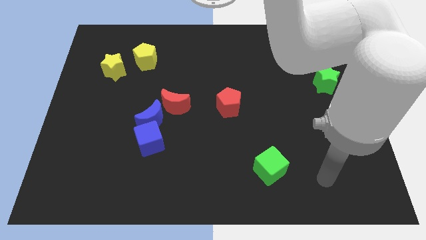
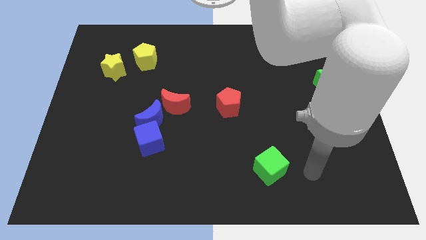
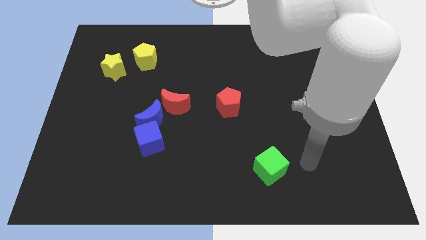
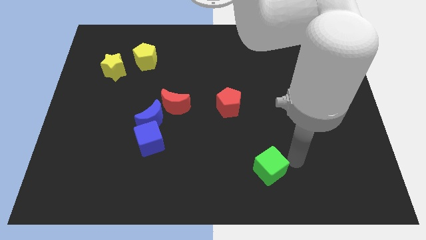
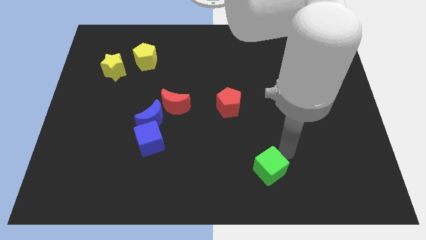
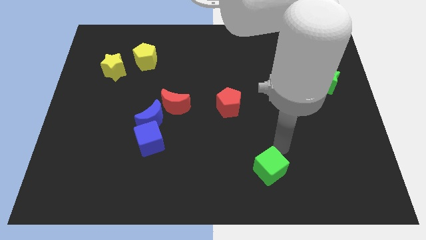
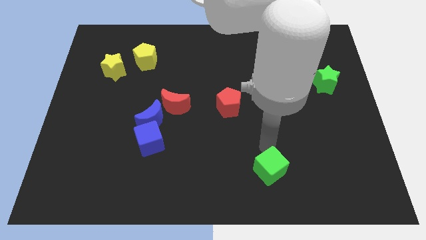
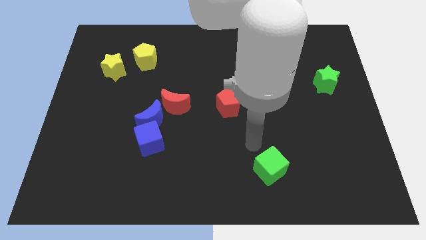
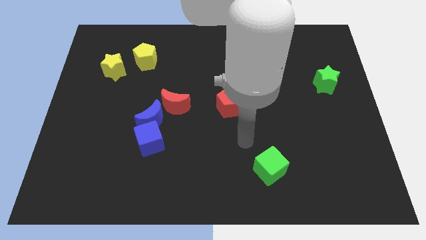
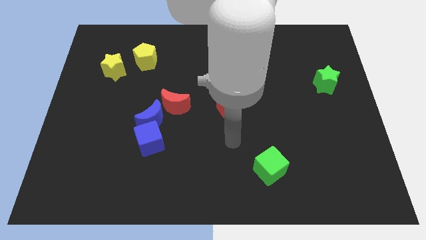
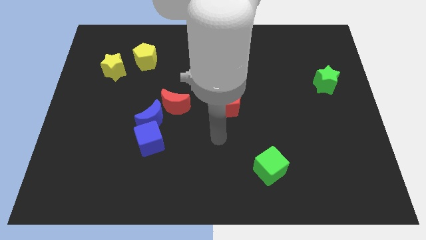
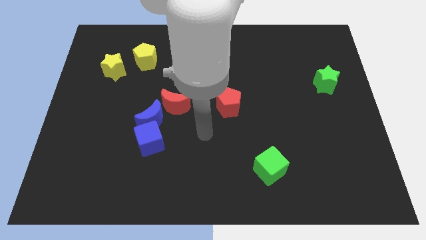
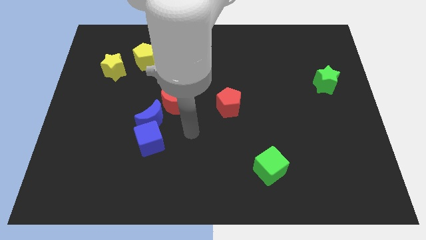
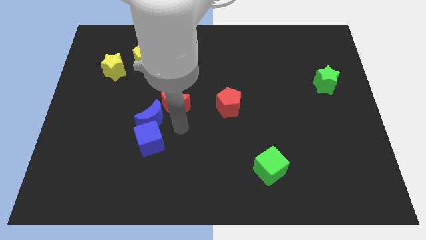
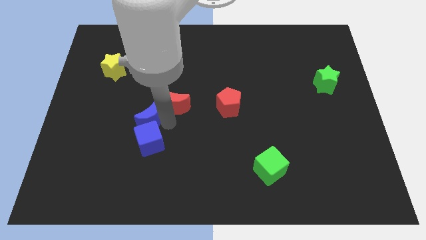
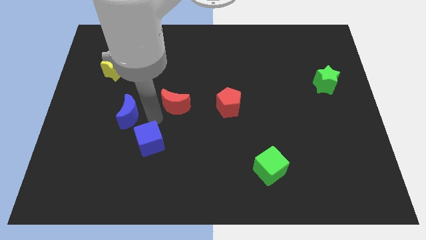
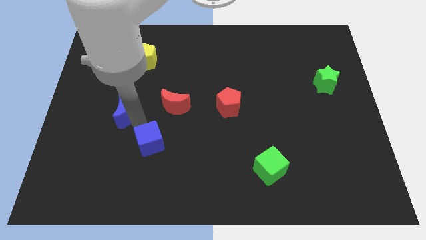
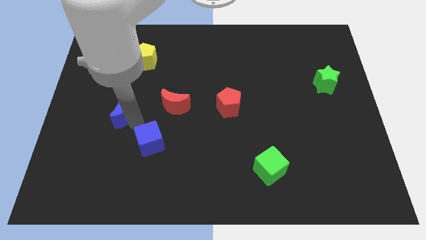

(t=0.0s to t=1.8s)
pull the blue cube apart from the blue moon

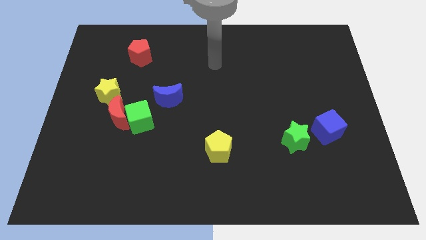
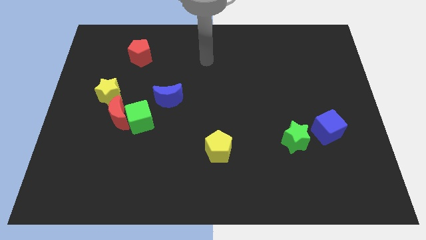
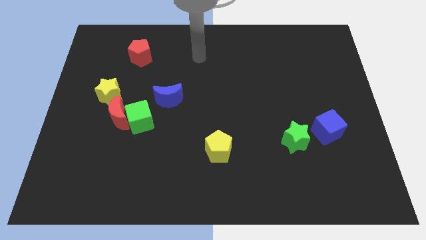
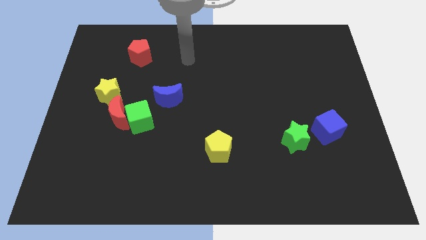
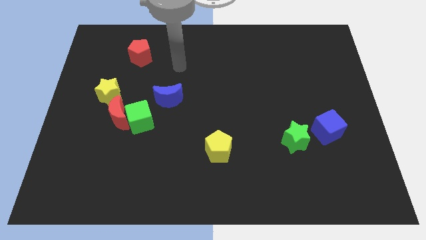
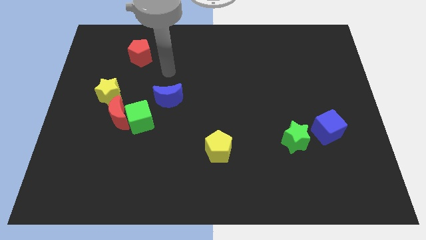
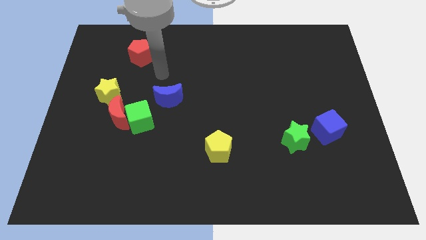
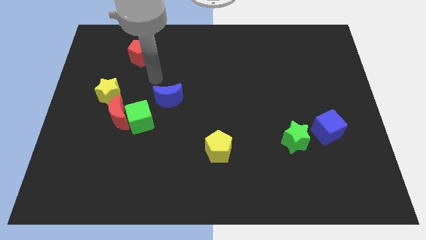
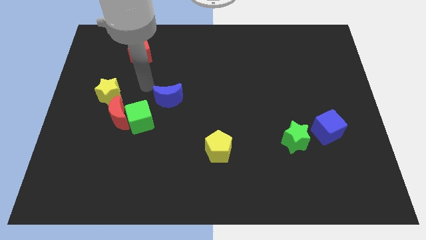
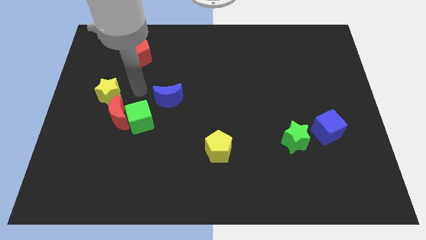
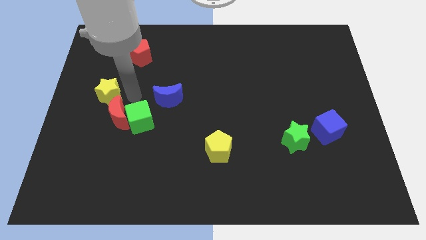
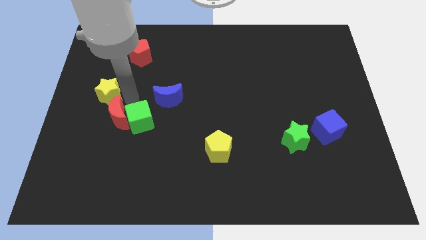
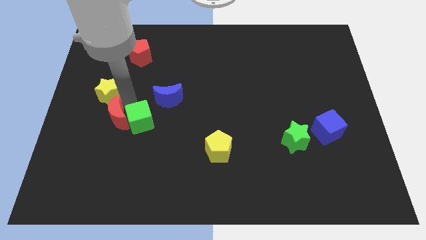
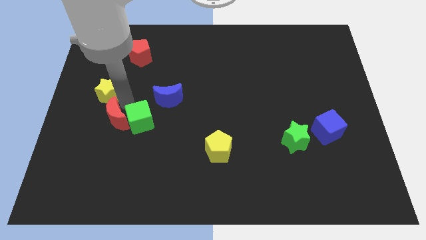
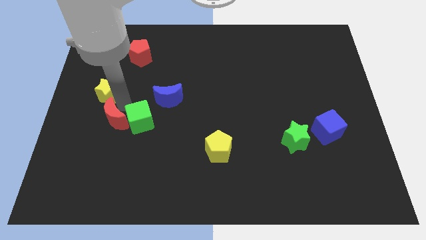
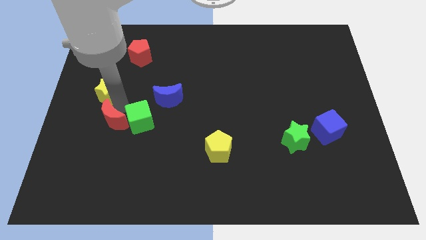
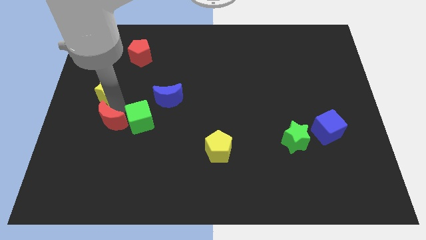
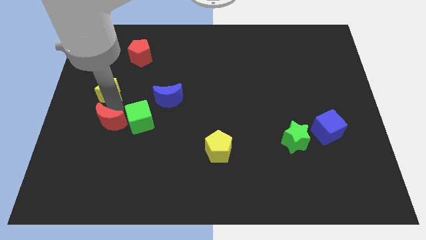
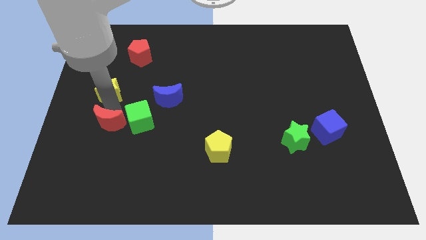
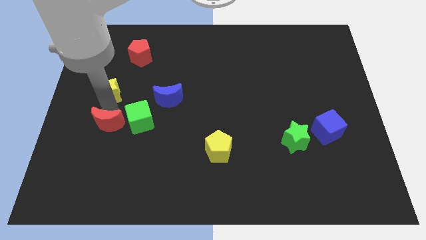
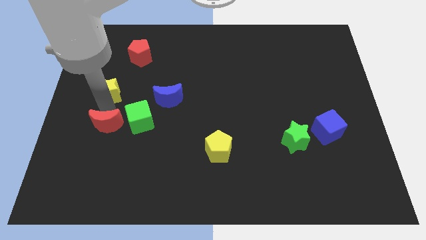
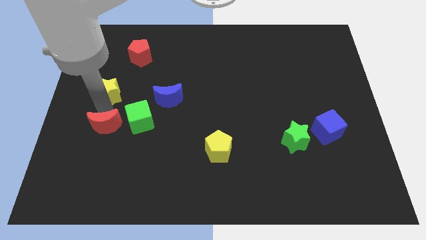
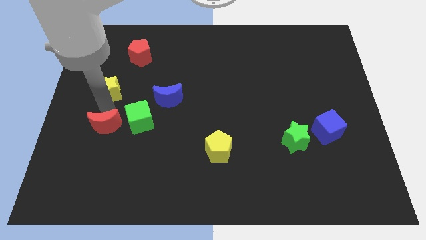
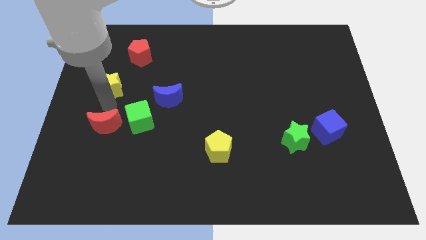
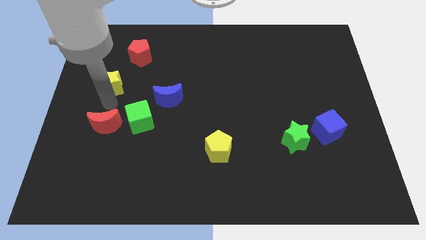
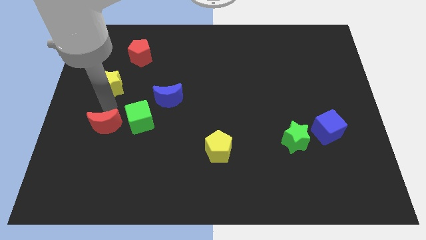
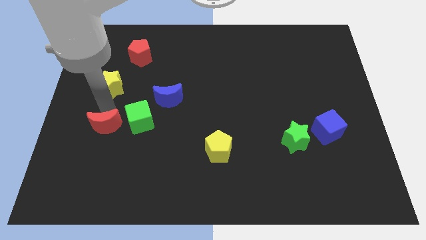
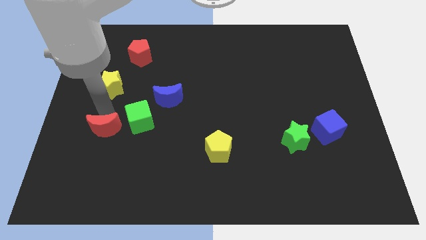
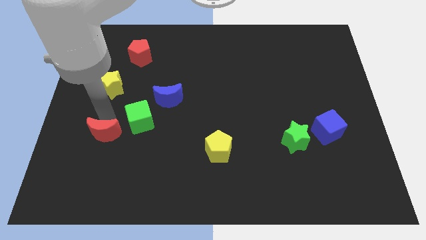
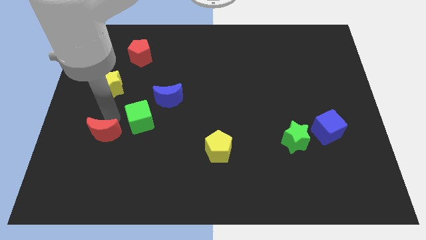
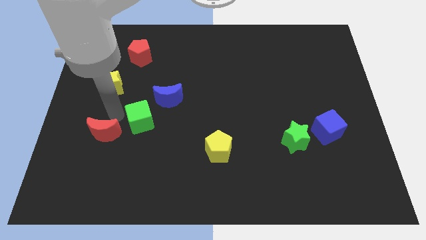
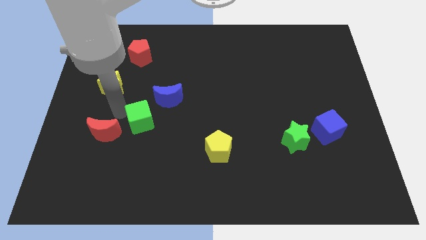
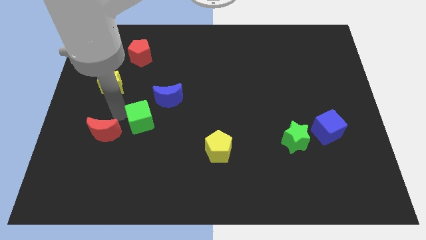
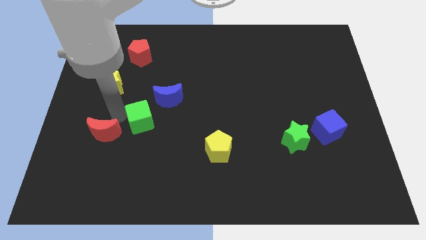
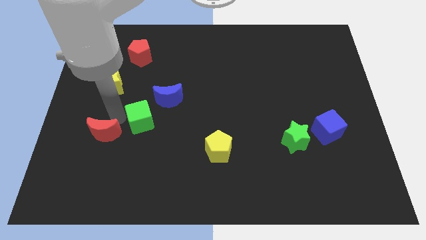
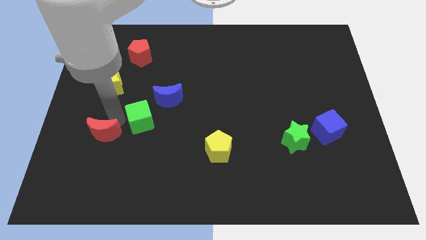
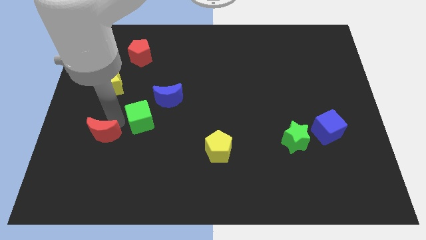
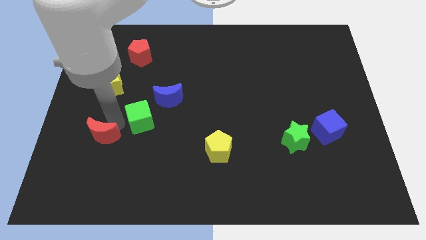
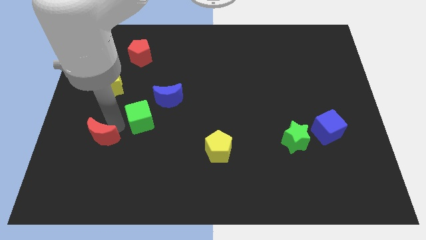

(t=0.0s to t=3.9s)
move the red moon away from the green cube and yellow star

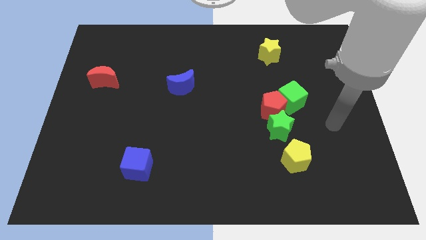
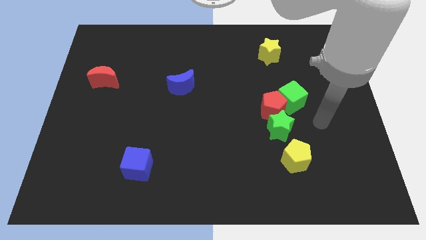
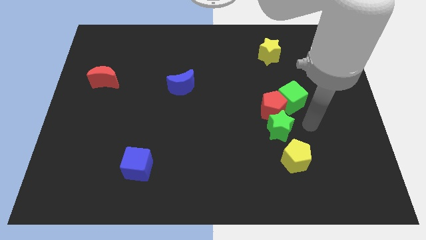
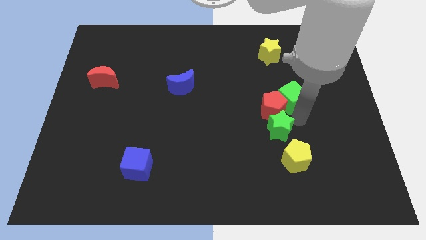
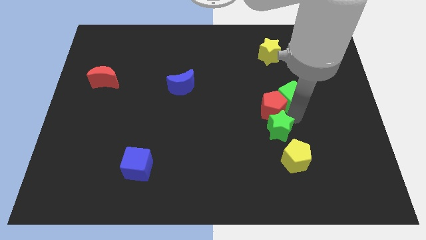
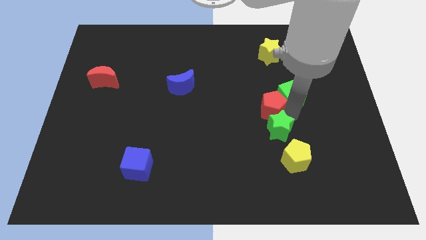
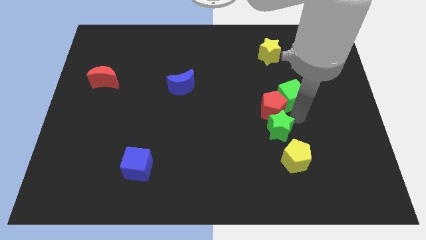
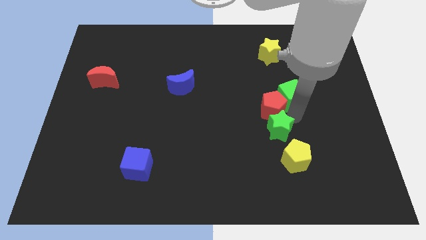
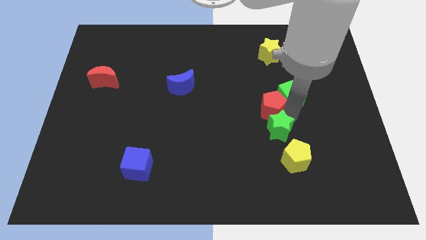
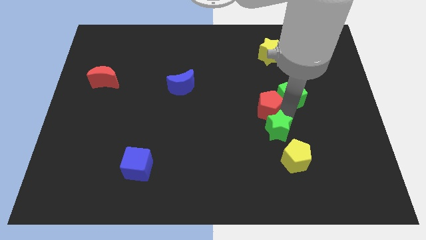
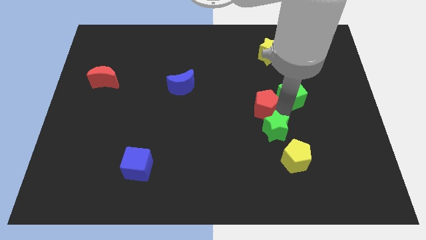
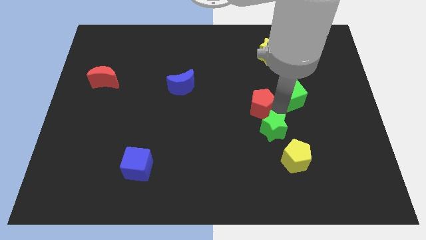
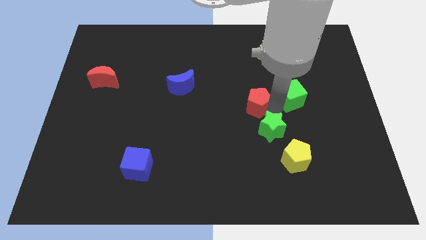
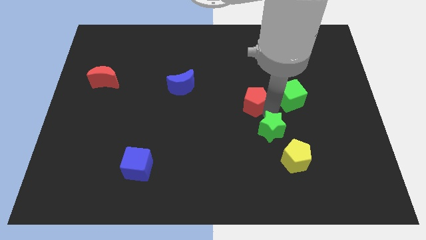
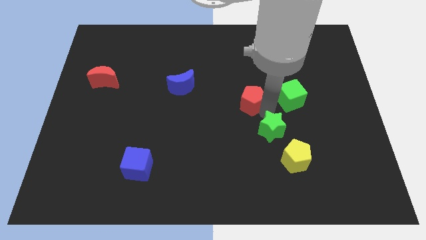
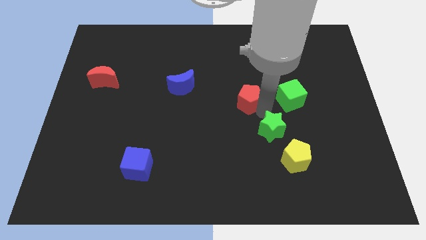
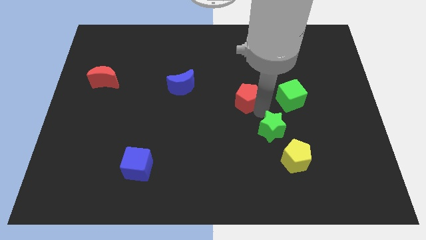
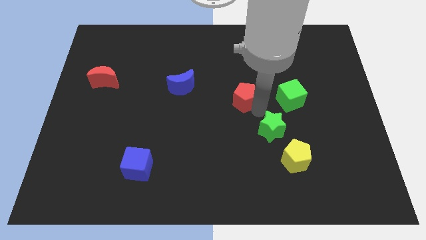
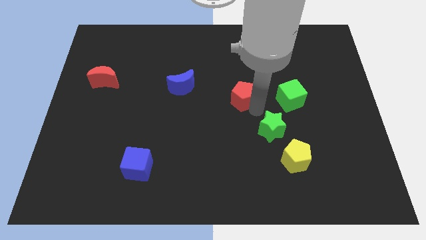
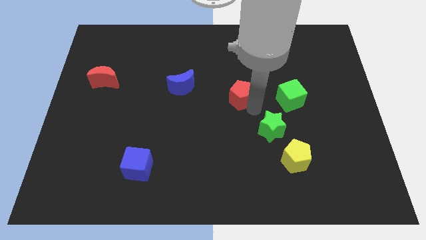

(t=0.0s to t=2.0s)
move the red pentagon away from the green cube and green star

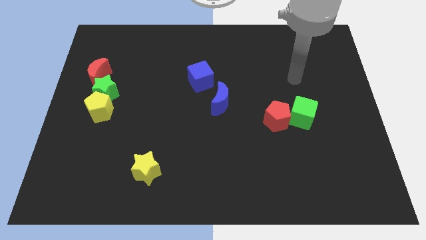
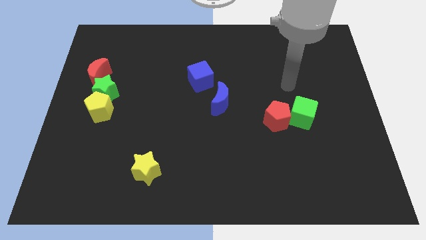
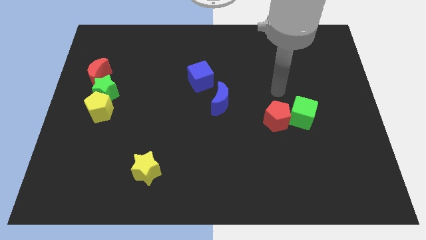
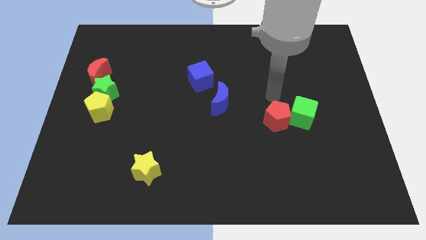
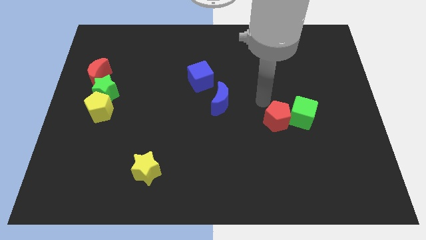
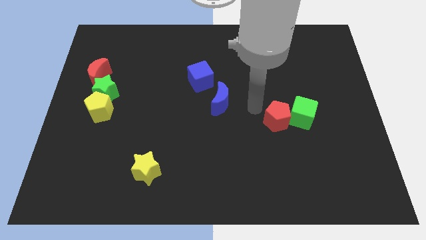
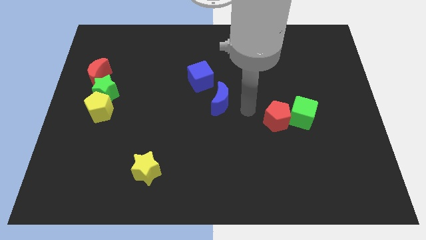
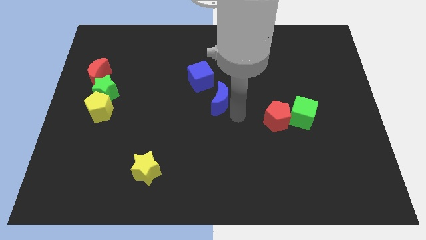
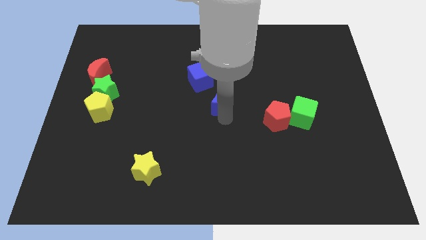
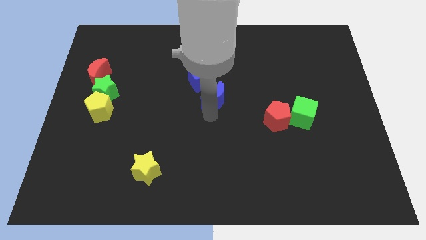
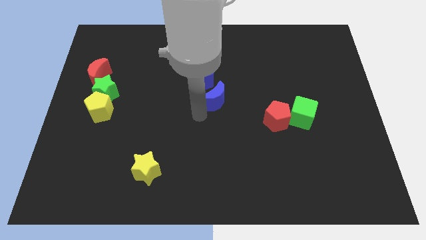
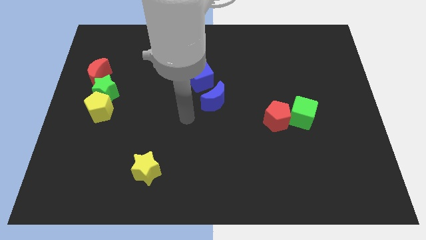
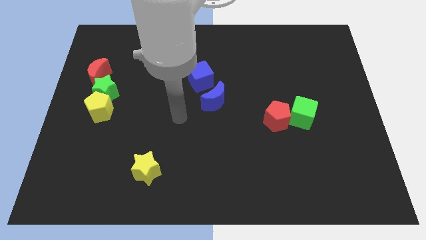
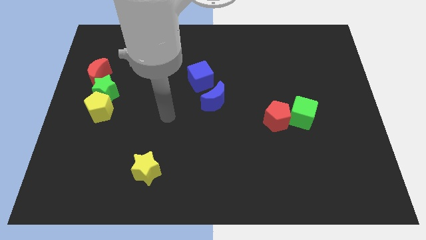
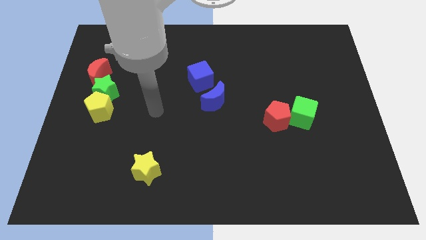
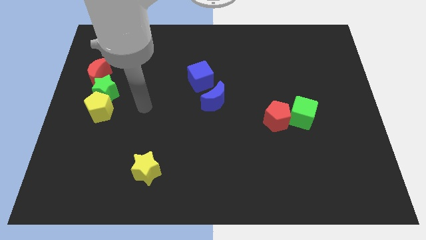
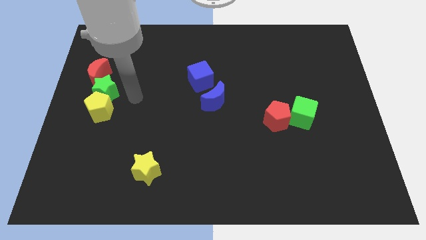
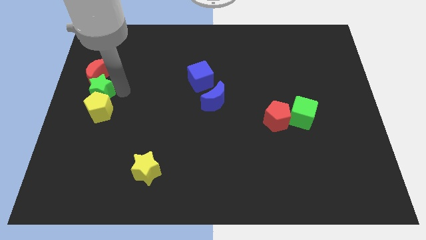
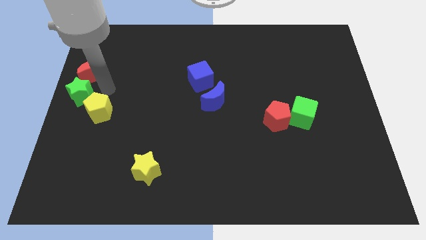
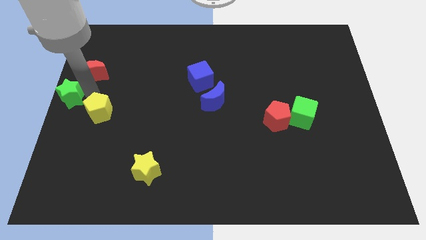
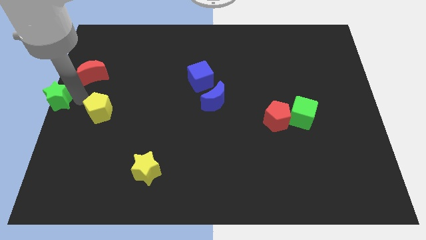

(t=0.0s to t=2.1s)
separate the yellow pentagon from the green star
